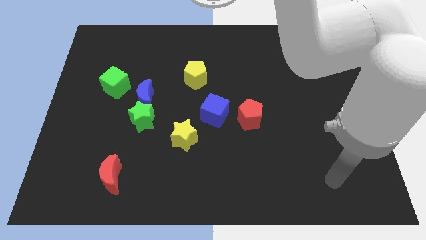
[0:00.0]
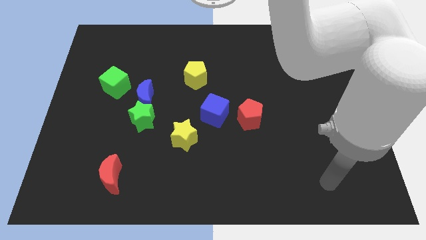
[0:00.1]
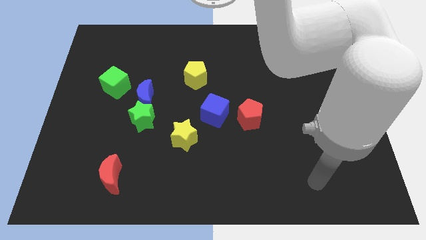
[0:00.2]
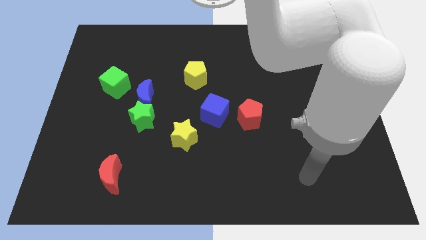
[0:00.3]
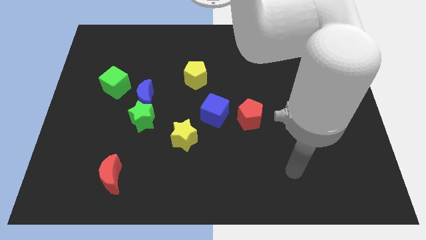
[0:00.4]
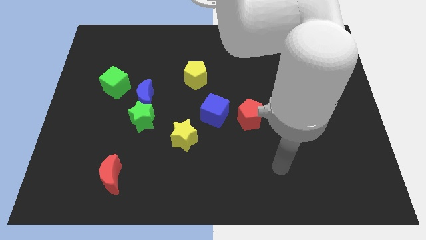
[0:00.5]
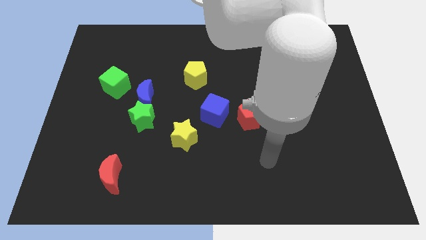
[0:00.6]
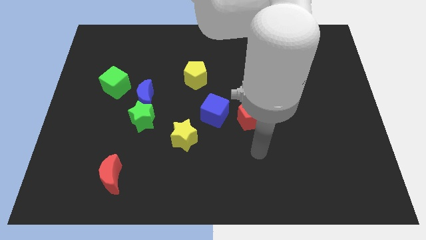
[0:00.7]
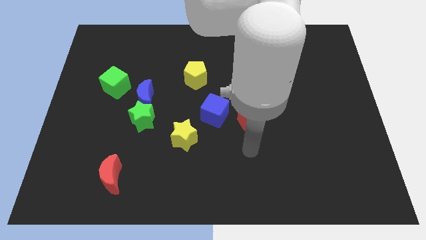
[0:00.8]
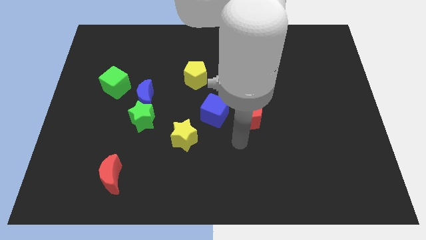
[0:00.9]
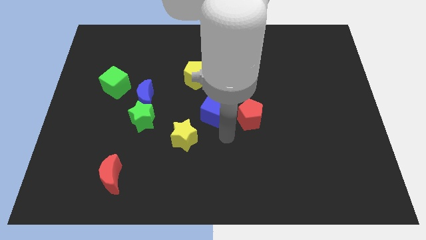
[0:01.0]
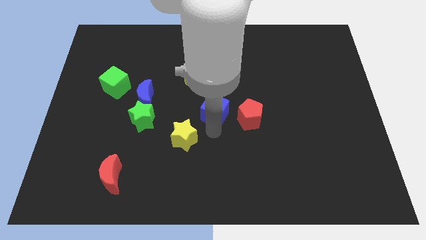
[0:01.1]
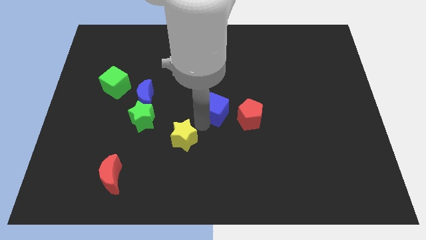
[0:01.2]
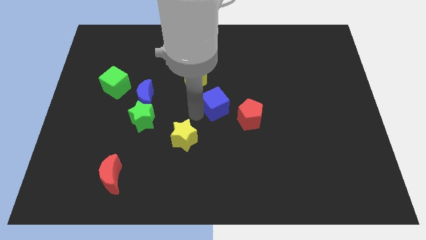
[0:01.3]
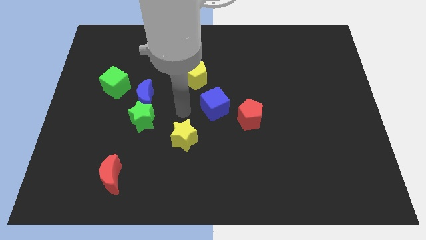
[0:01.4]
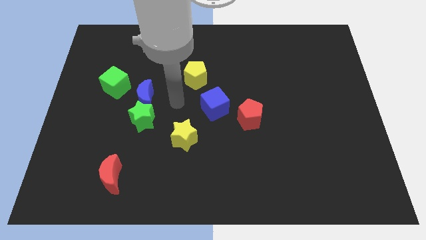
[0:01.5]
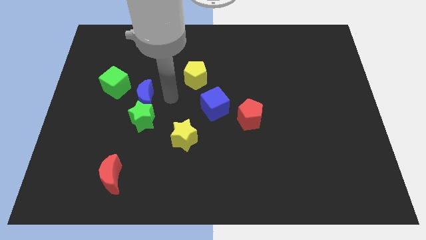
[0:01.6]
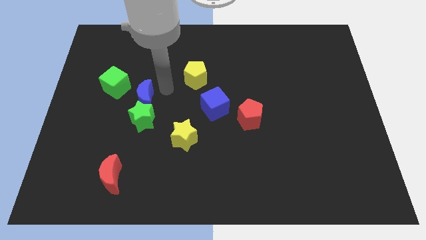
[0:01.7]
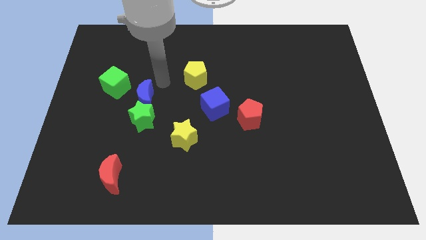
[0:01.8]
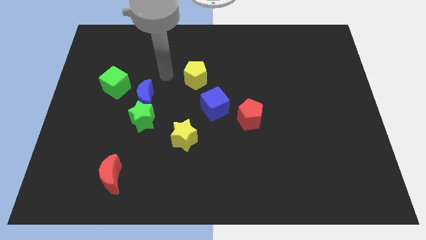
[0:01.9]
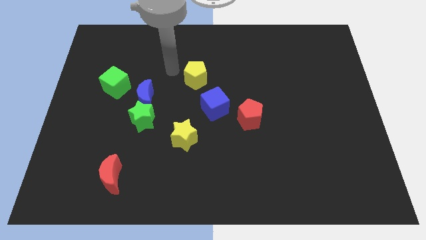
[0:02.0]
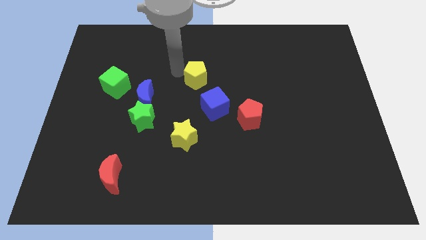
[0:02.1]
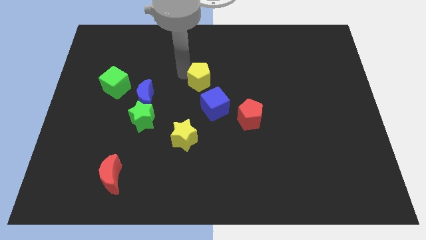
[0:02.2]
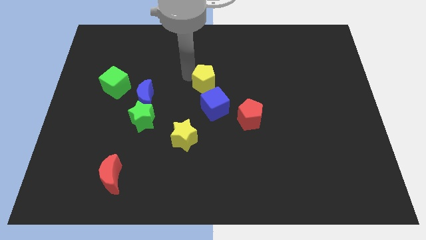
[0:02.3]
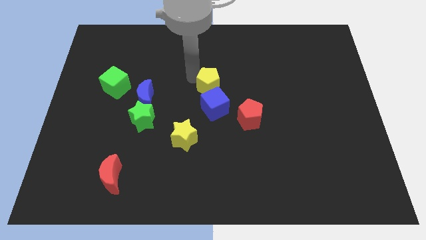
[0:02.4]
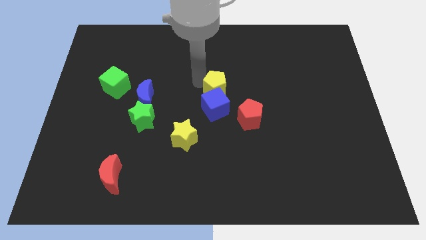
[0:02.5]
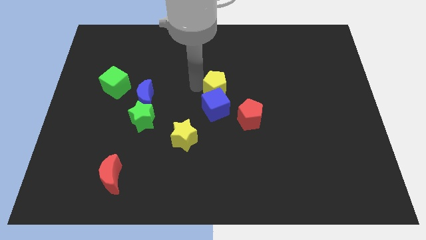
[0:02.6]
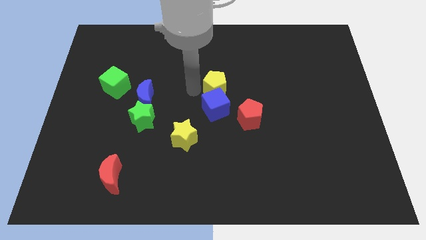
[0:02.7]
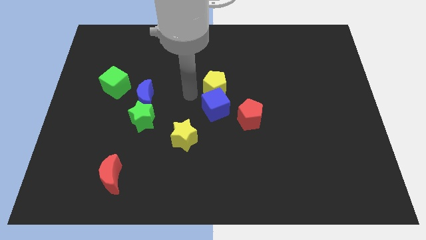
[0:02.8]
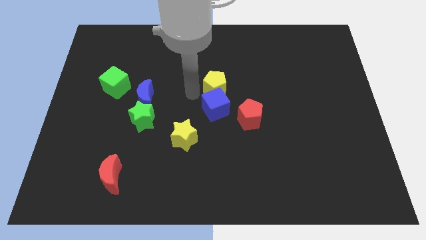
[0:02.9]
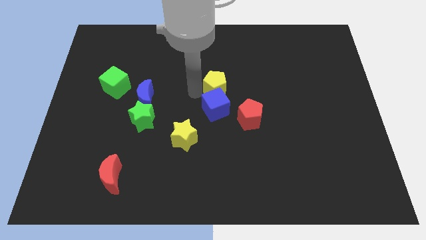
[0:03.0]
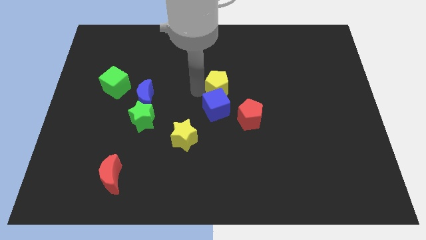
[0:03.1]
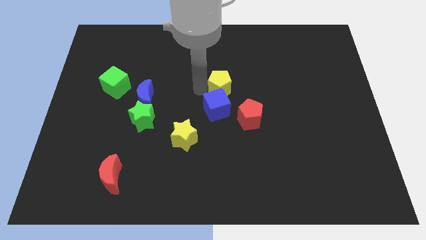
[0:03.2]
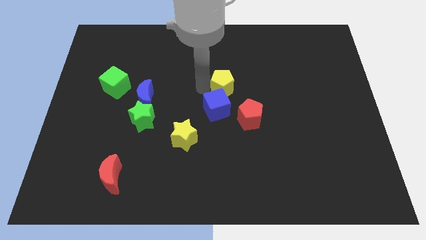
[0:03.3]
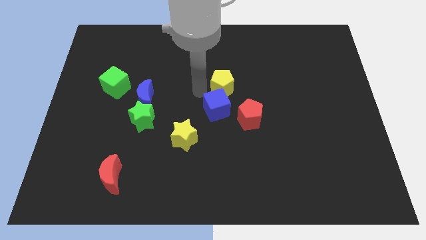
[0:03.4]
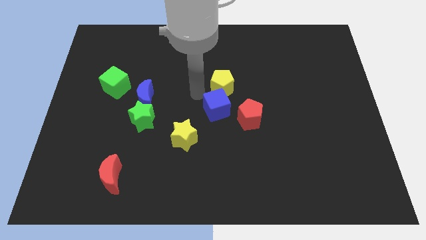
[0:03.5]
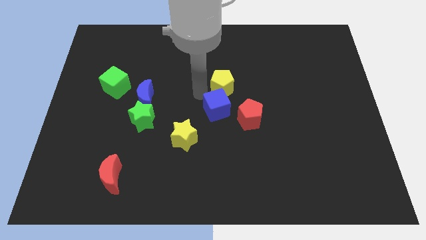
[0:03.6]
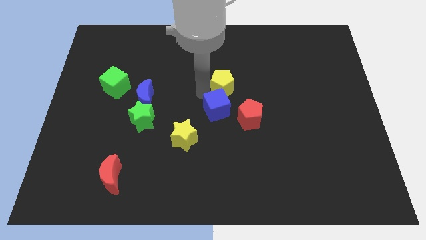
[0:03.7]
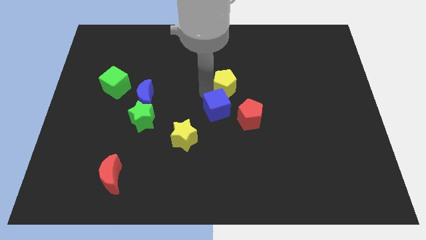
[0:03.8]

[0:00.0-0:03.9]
slightly slide the yellow pentagon right

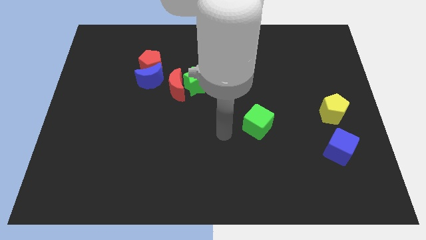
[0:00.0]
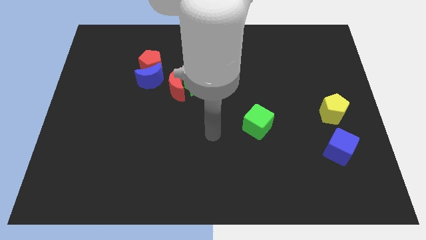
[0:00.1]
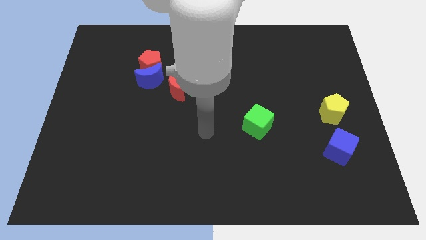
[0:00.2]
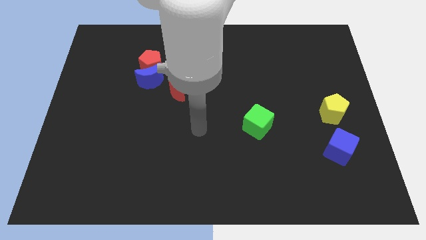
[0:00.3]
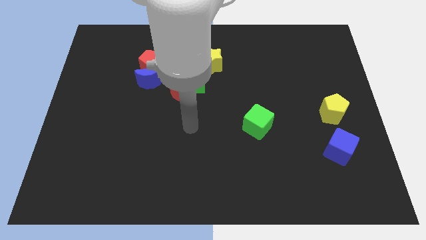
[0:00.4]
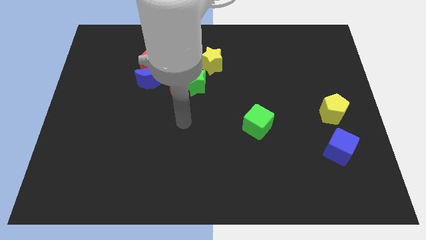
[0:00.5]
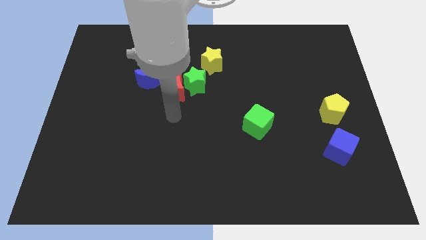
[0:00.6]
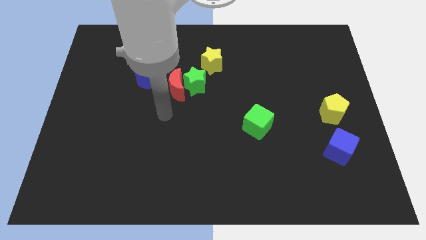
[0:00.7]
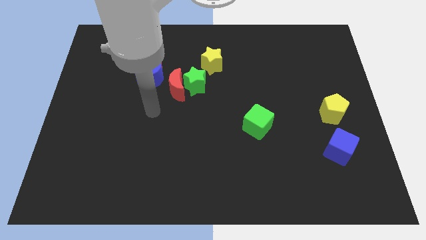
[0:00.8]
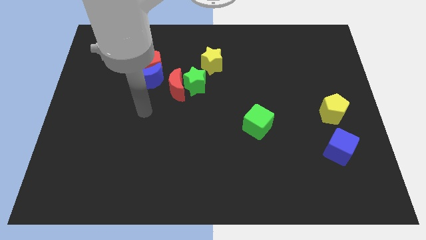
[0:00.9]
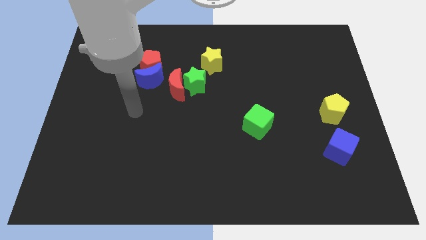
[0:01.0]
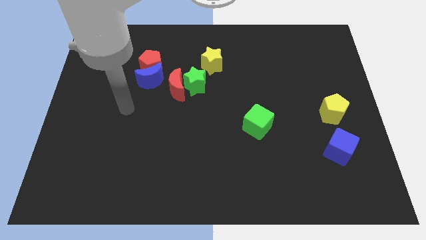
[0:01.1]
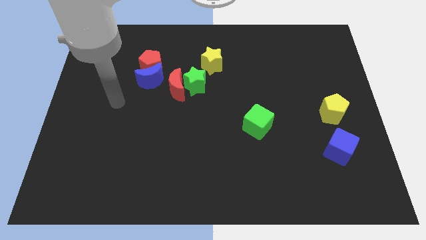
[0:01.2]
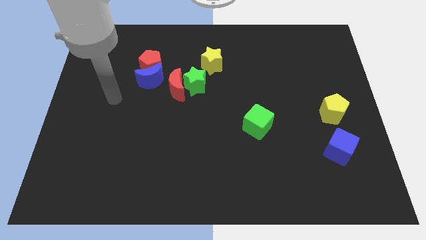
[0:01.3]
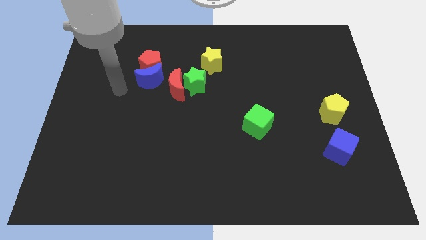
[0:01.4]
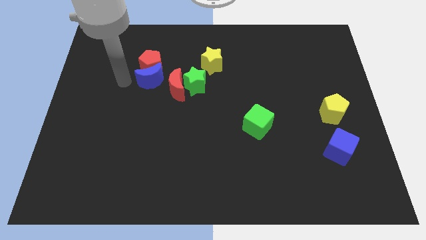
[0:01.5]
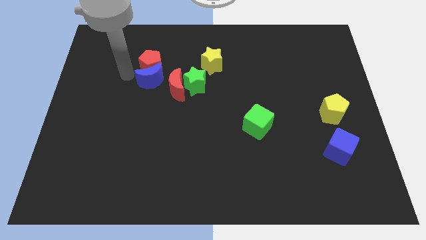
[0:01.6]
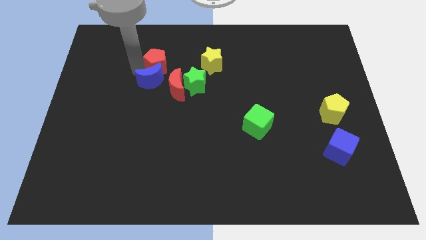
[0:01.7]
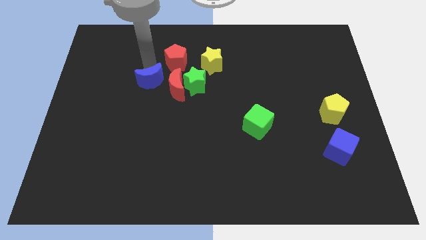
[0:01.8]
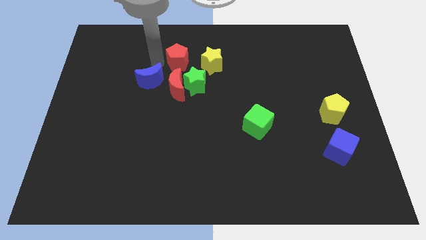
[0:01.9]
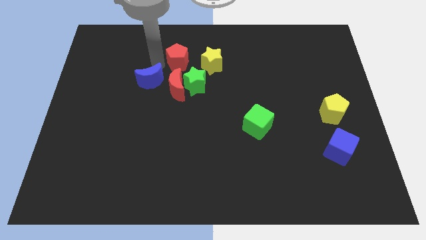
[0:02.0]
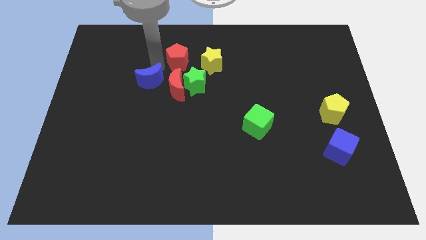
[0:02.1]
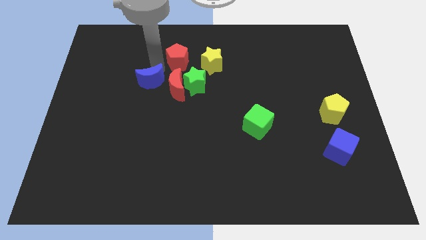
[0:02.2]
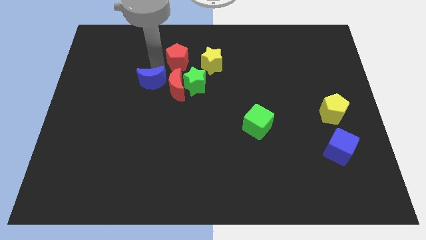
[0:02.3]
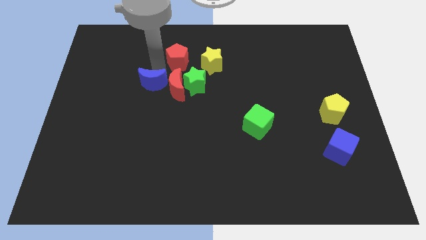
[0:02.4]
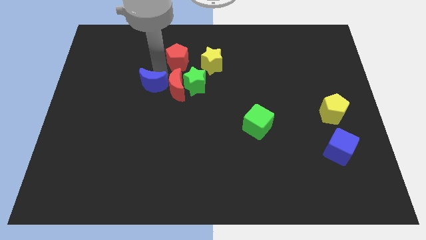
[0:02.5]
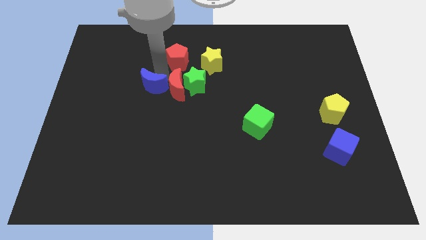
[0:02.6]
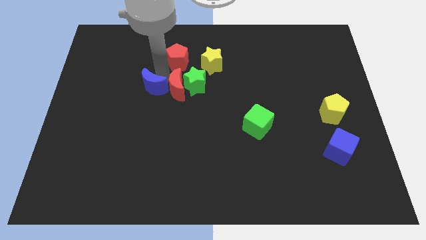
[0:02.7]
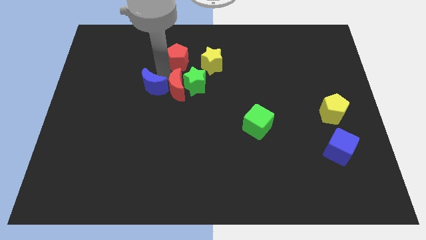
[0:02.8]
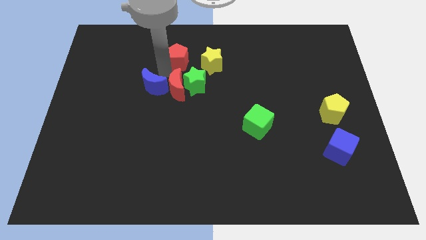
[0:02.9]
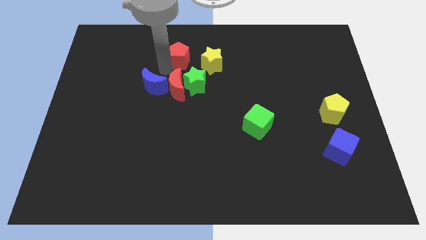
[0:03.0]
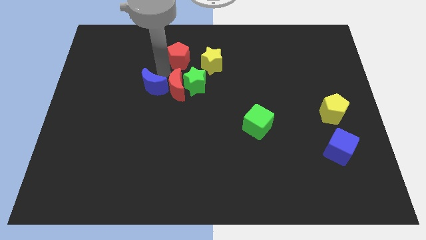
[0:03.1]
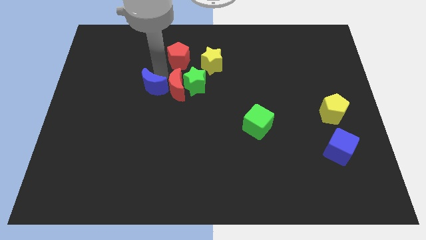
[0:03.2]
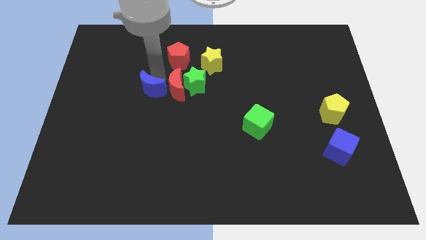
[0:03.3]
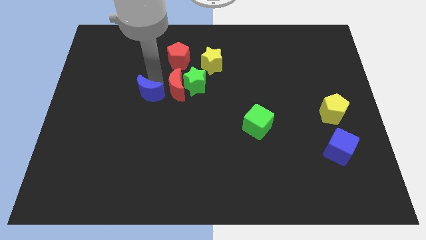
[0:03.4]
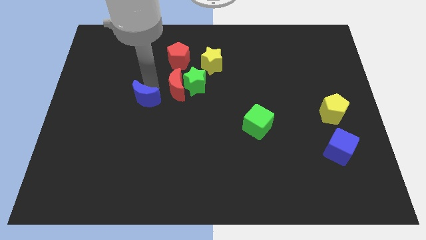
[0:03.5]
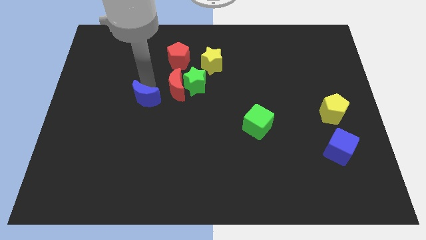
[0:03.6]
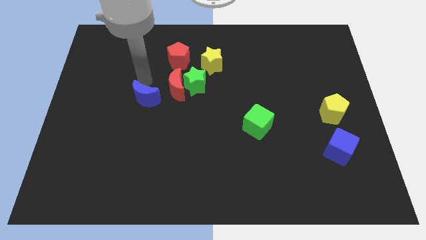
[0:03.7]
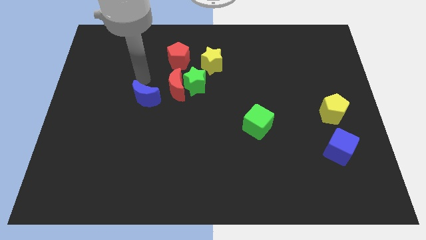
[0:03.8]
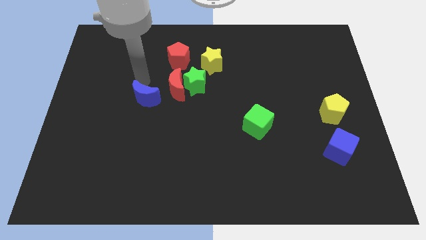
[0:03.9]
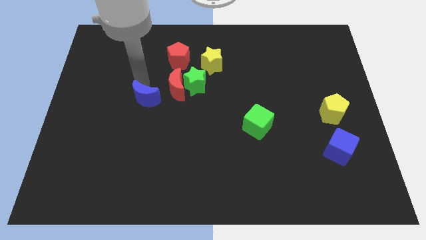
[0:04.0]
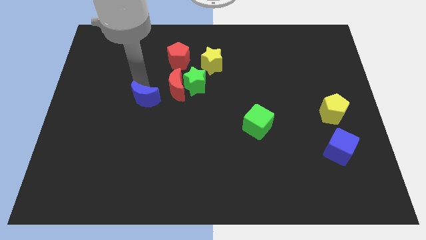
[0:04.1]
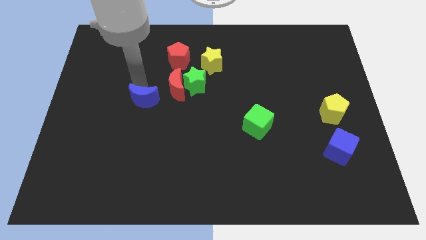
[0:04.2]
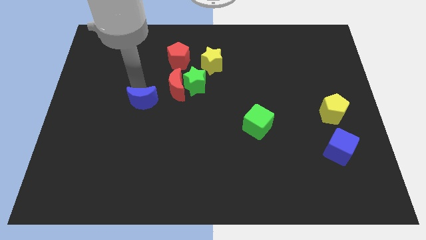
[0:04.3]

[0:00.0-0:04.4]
move the blue moon somewhat downwards
